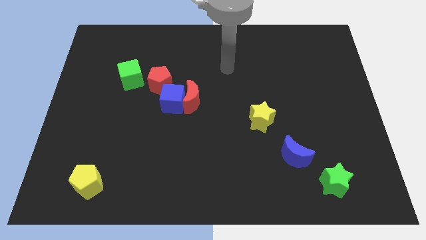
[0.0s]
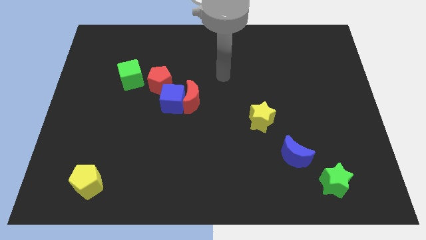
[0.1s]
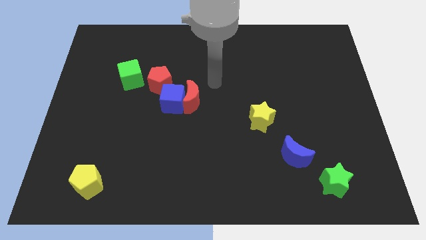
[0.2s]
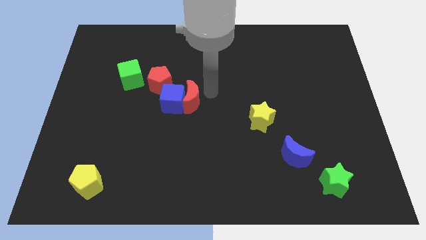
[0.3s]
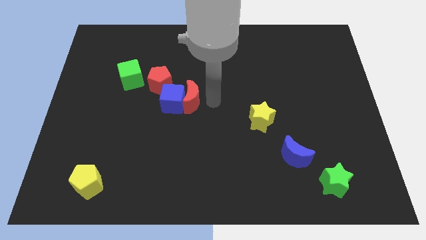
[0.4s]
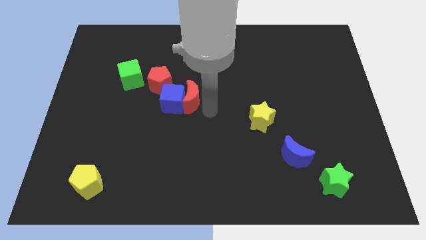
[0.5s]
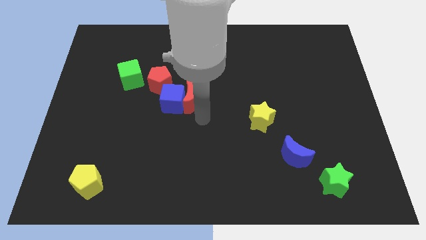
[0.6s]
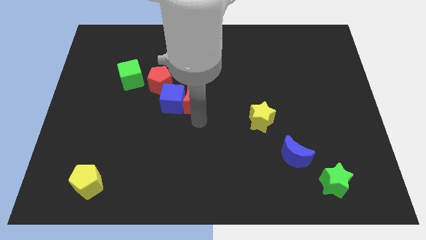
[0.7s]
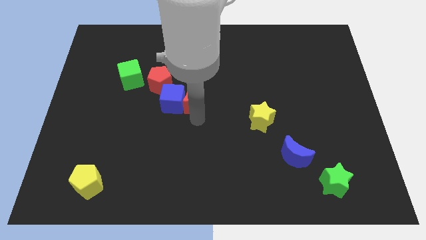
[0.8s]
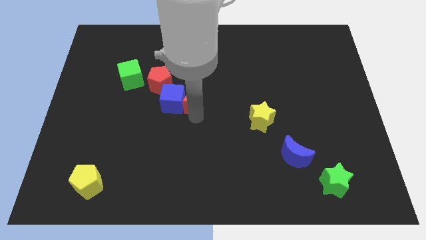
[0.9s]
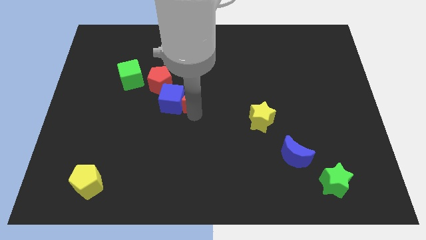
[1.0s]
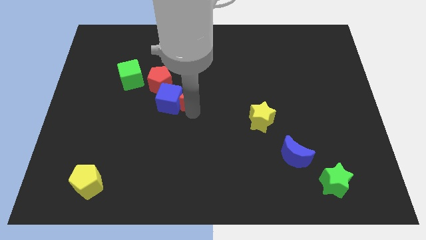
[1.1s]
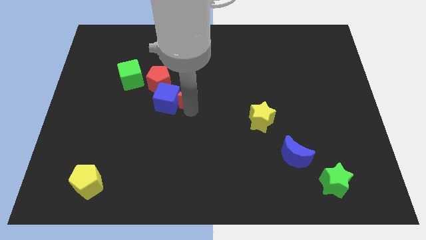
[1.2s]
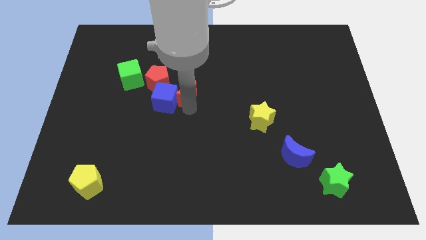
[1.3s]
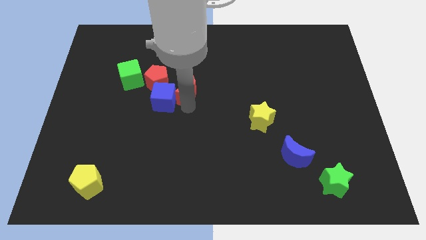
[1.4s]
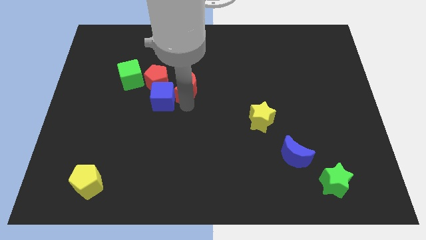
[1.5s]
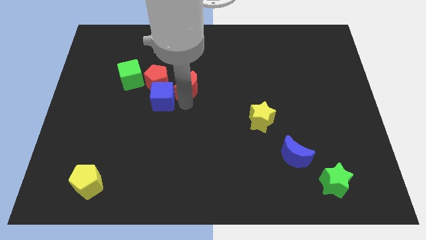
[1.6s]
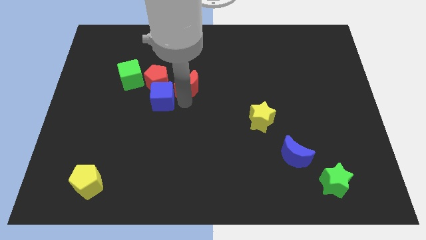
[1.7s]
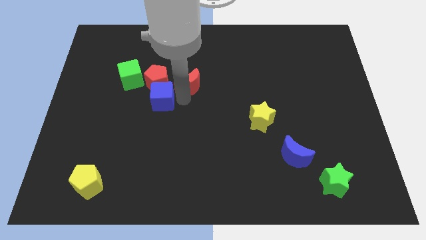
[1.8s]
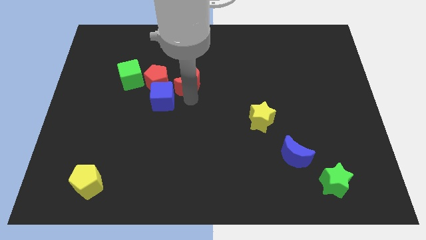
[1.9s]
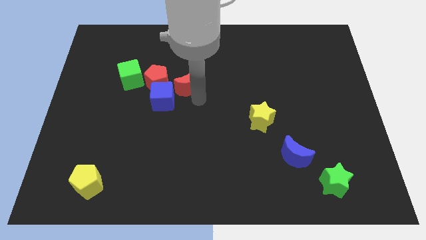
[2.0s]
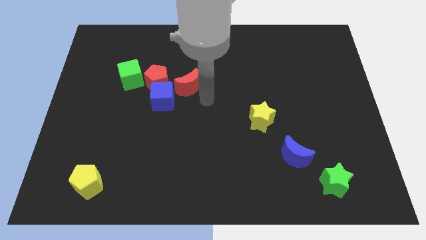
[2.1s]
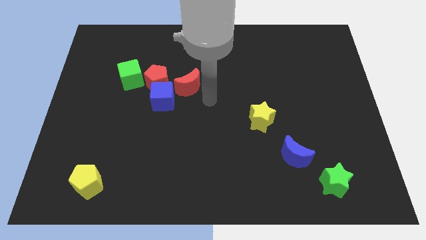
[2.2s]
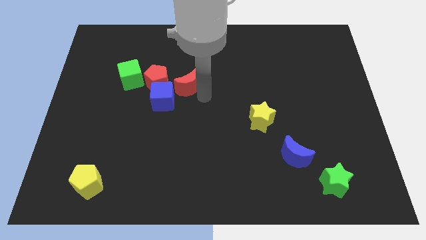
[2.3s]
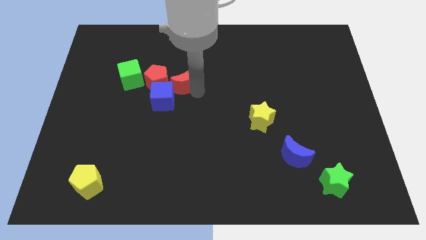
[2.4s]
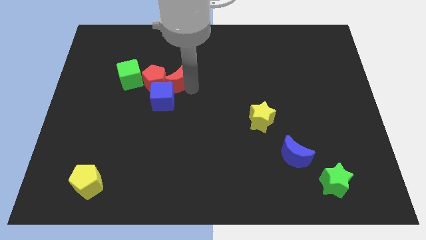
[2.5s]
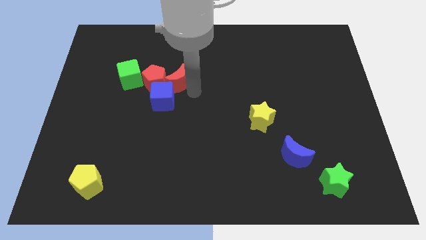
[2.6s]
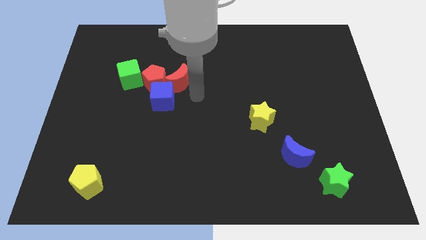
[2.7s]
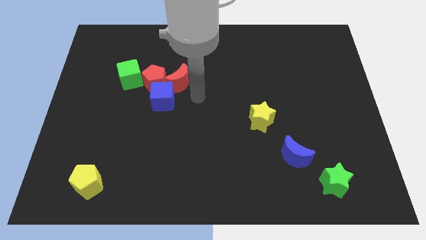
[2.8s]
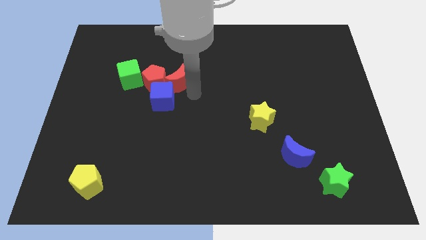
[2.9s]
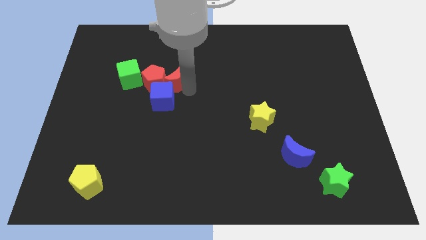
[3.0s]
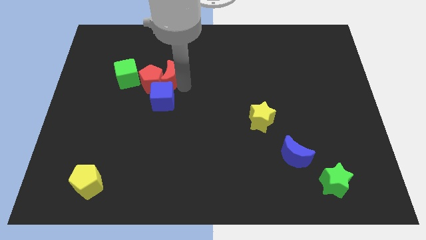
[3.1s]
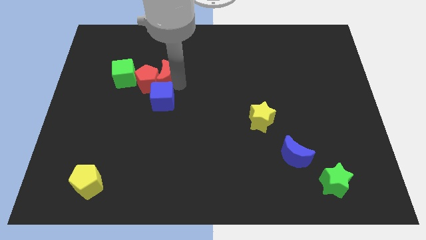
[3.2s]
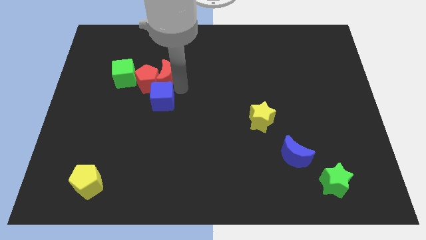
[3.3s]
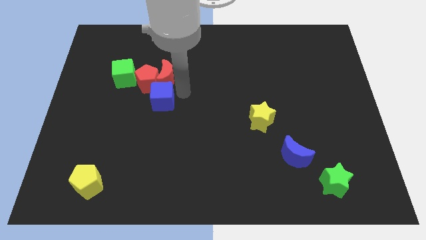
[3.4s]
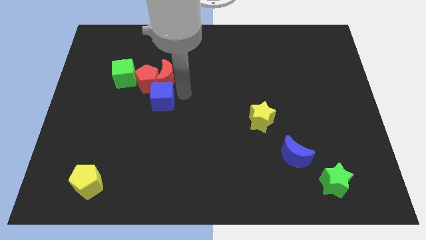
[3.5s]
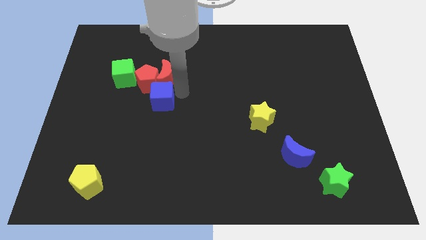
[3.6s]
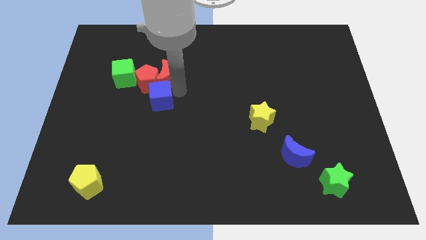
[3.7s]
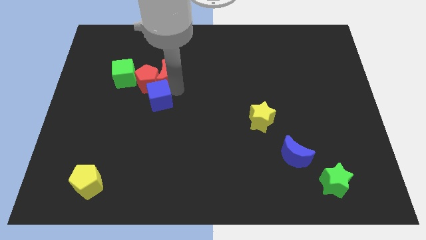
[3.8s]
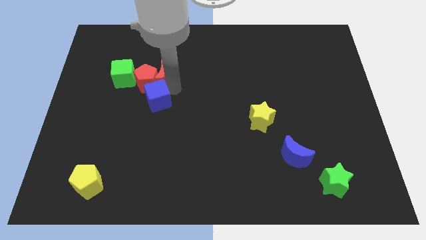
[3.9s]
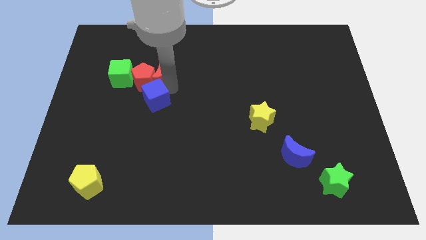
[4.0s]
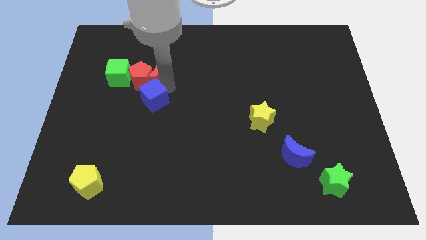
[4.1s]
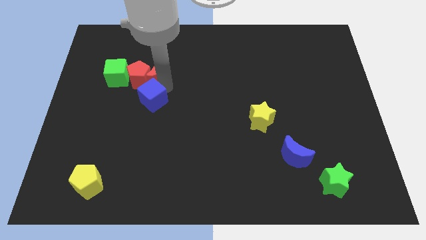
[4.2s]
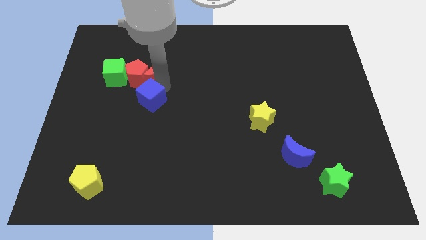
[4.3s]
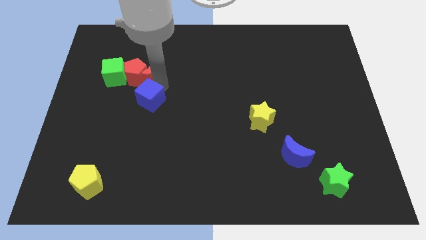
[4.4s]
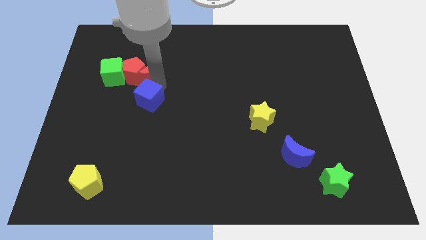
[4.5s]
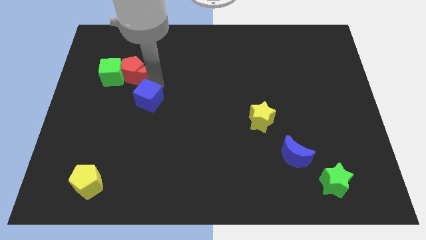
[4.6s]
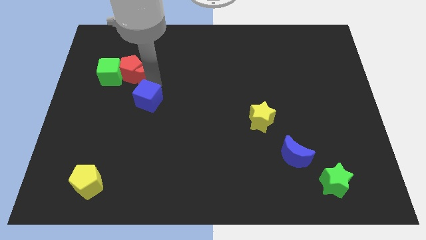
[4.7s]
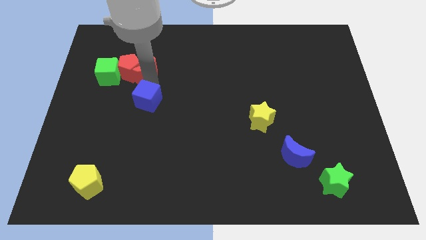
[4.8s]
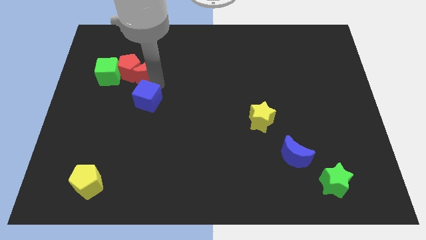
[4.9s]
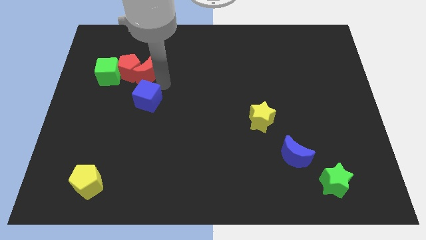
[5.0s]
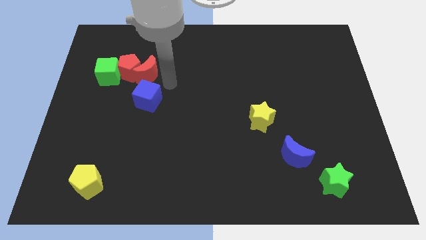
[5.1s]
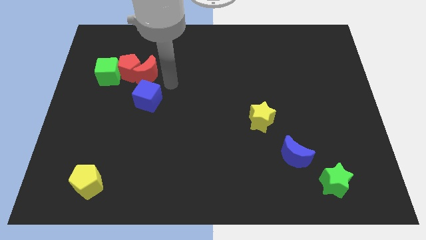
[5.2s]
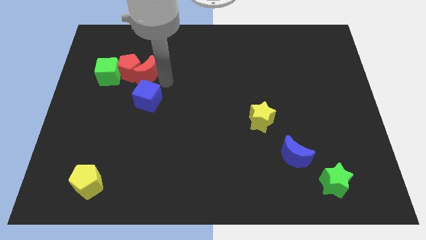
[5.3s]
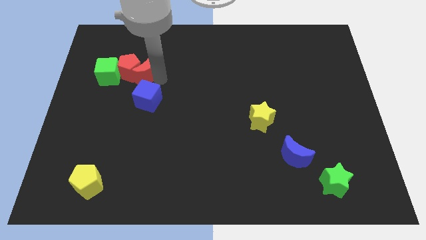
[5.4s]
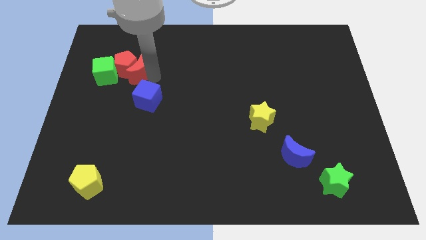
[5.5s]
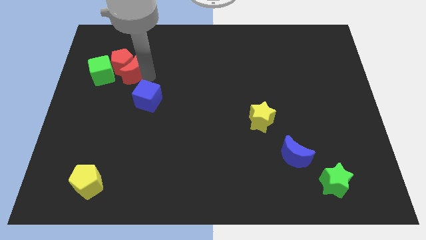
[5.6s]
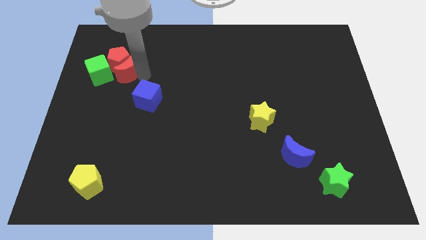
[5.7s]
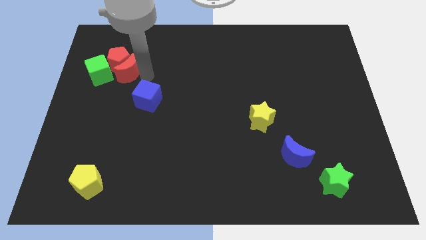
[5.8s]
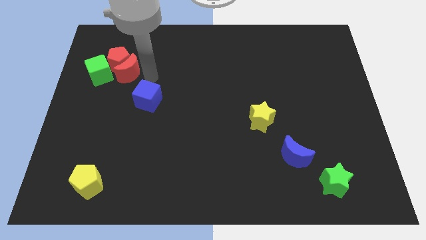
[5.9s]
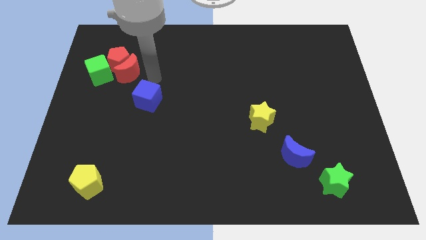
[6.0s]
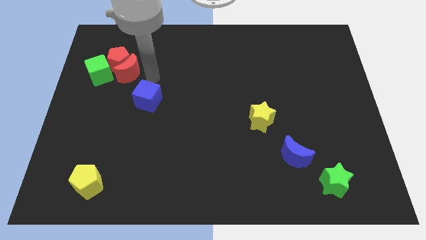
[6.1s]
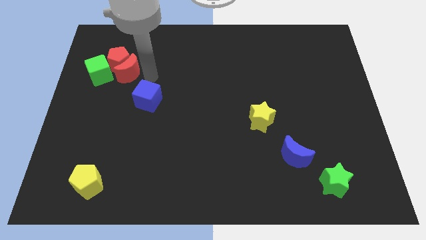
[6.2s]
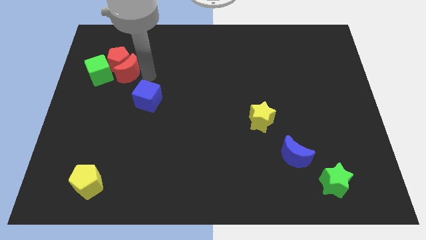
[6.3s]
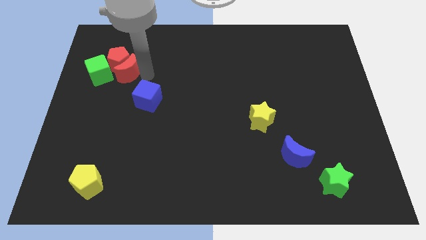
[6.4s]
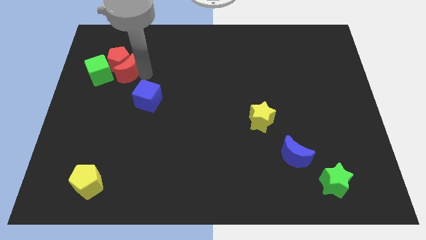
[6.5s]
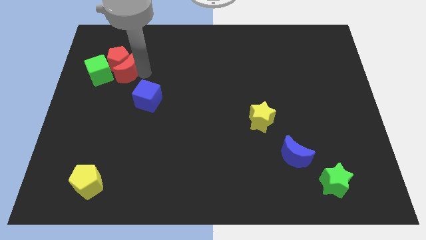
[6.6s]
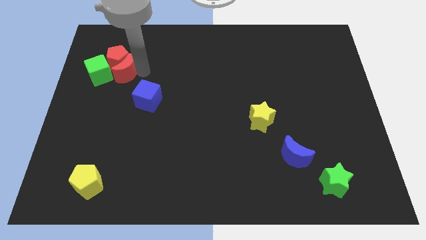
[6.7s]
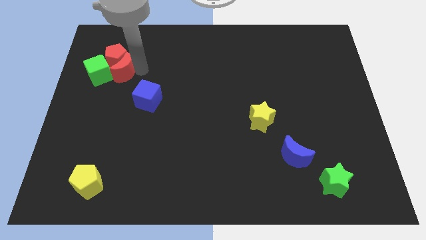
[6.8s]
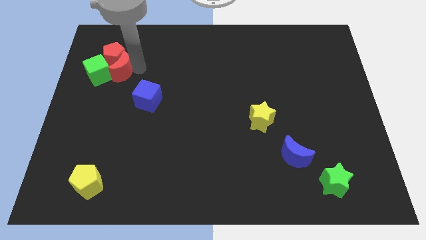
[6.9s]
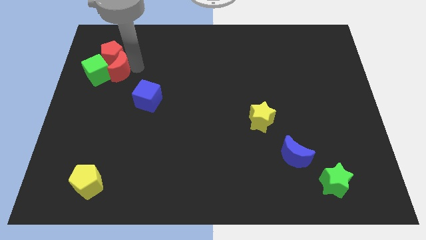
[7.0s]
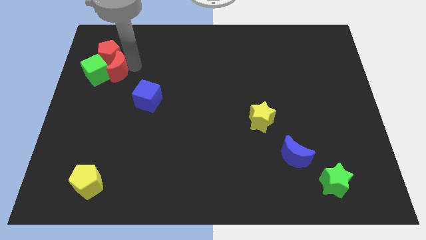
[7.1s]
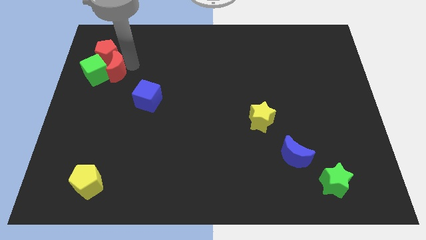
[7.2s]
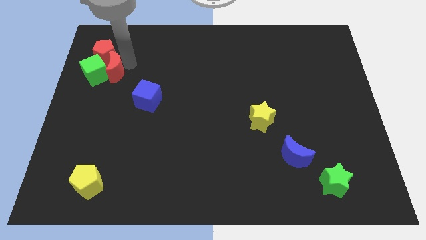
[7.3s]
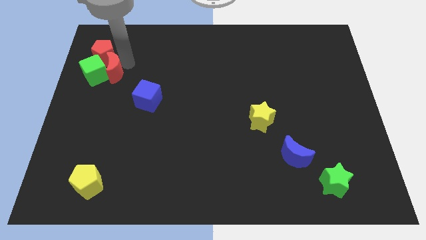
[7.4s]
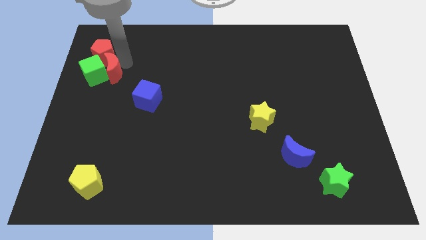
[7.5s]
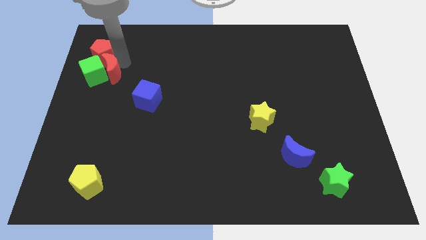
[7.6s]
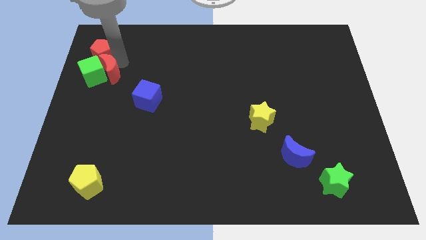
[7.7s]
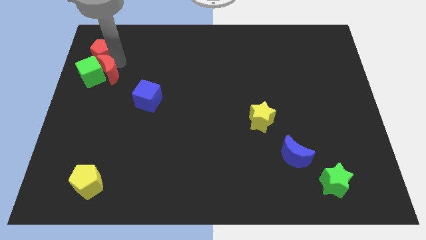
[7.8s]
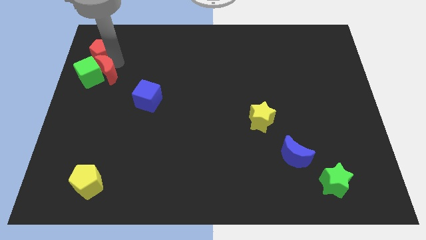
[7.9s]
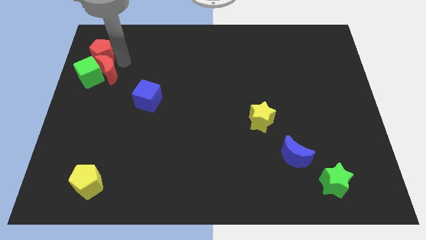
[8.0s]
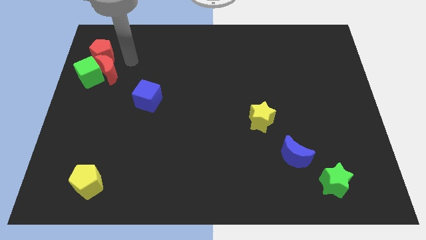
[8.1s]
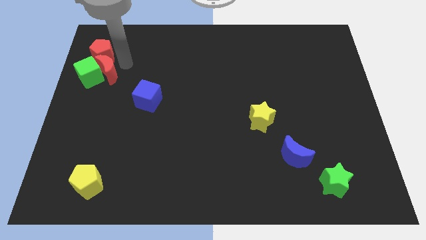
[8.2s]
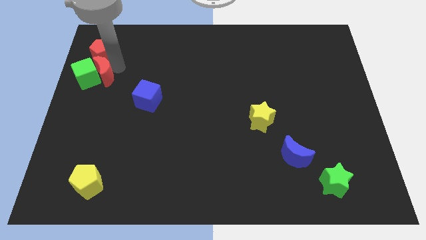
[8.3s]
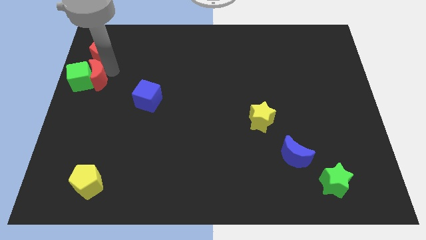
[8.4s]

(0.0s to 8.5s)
push the red moon to the center left
